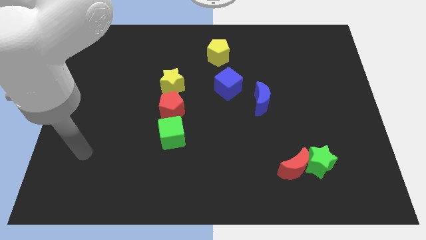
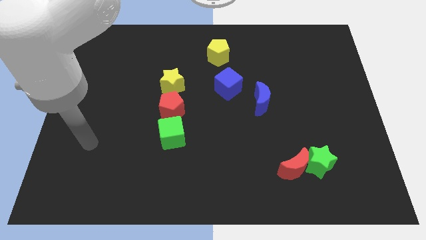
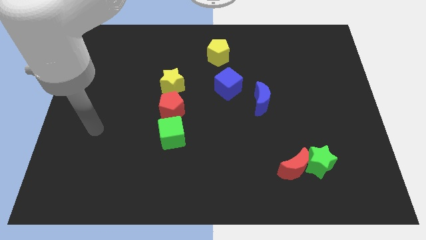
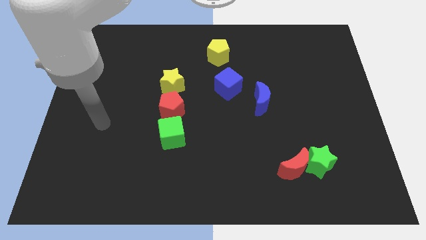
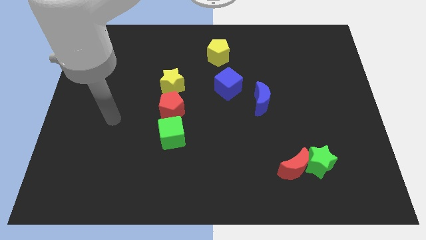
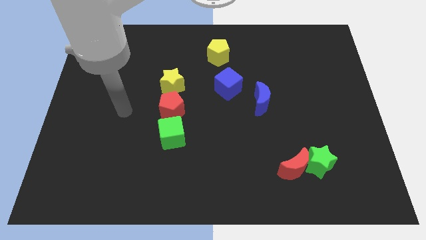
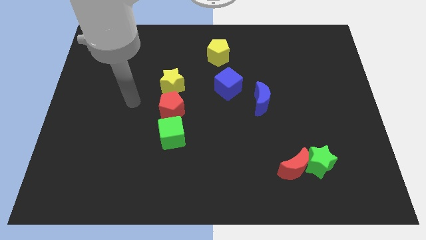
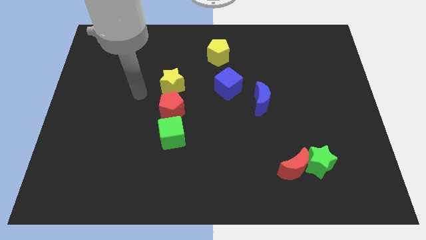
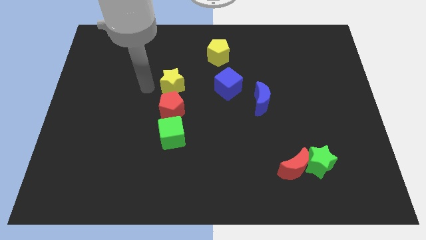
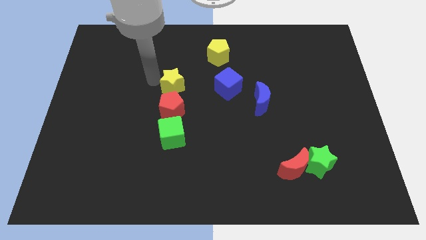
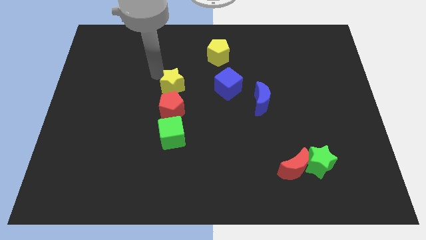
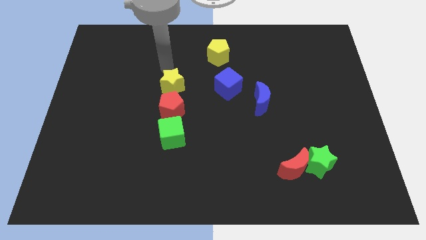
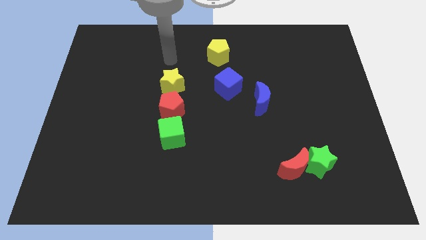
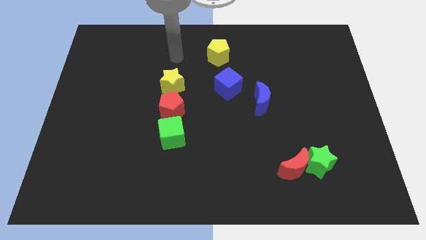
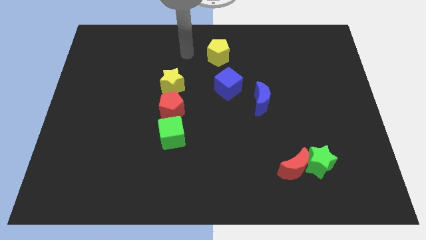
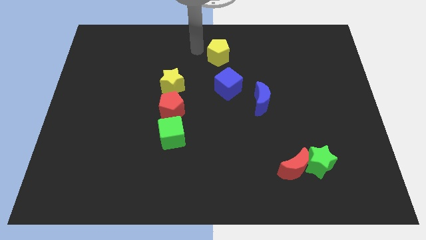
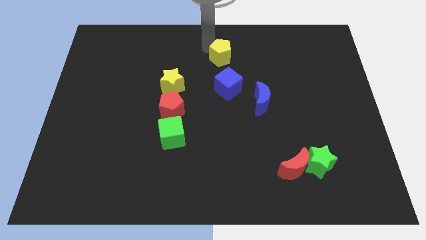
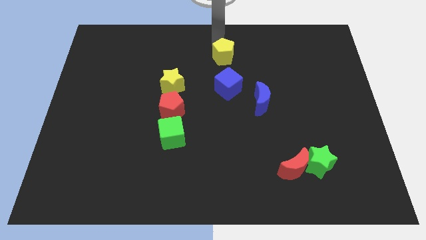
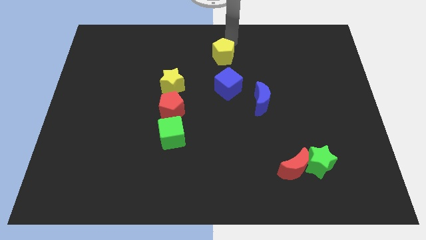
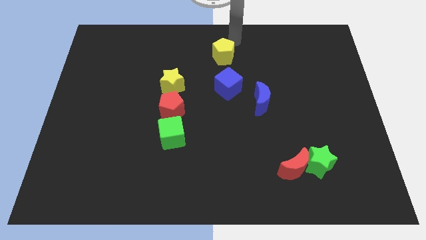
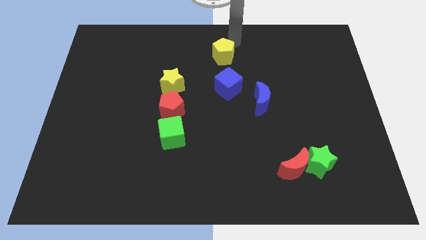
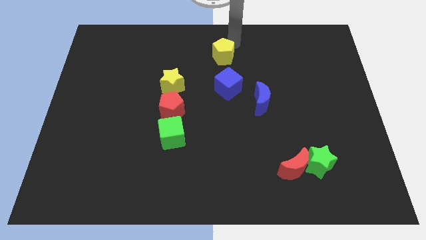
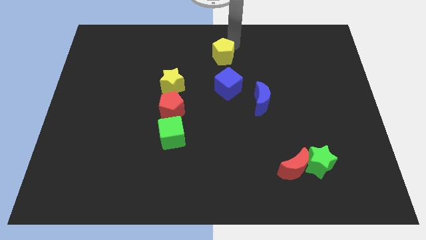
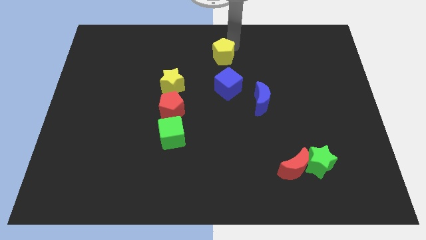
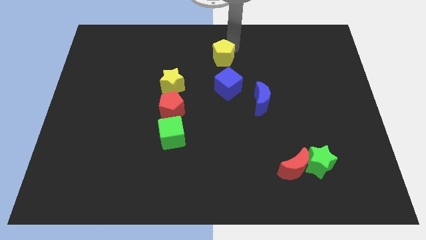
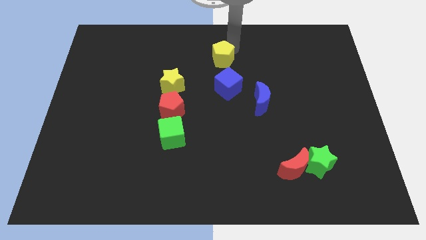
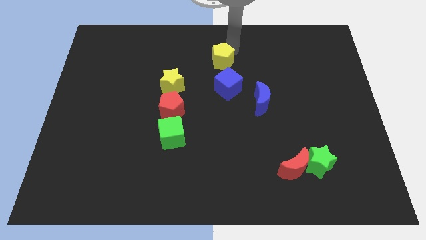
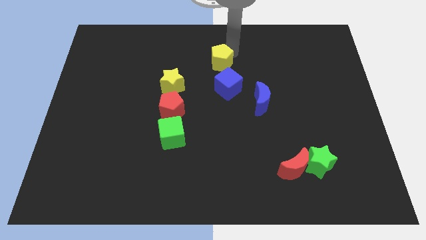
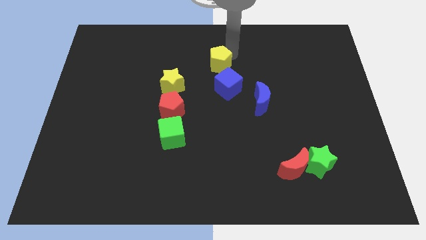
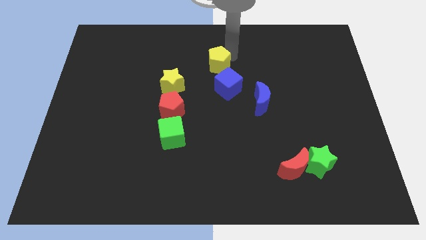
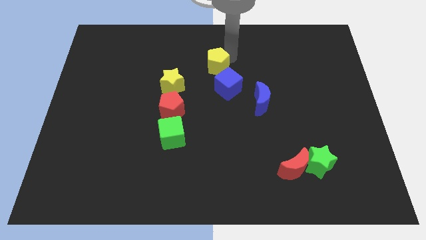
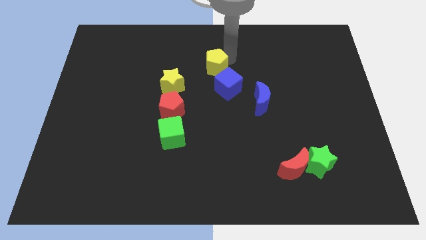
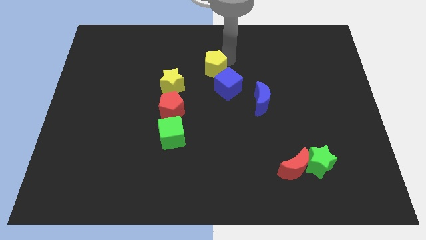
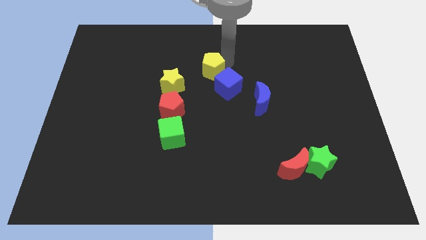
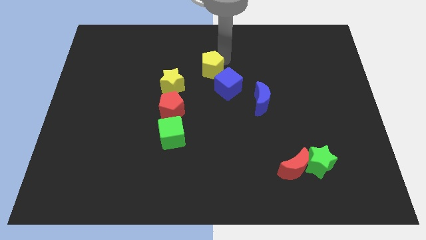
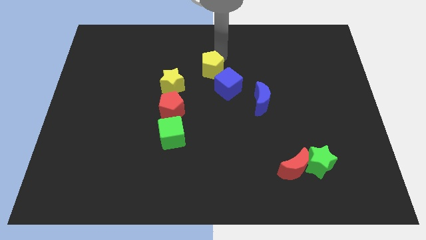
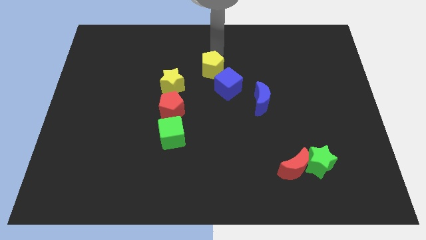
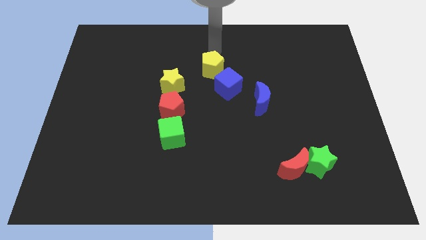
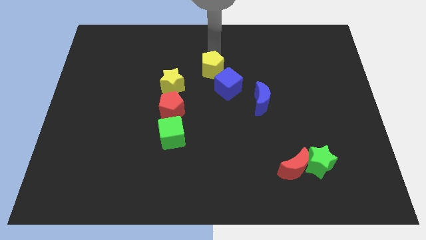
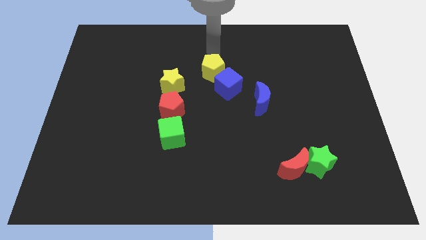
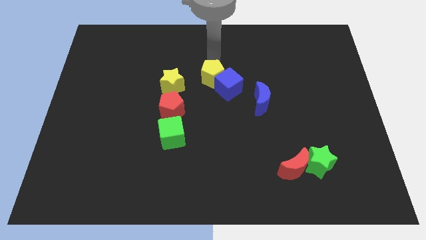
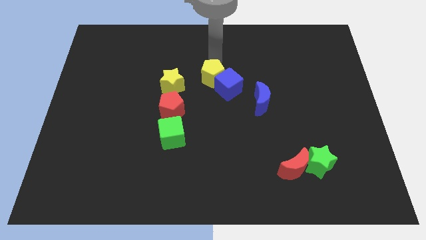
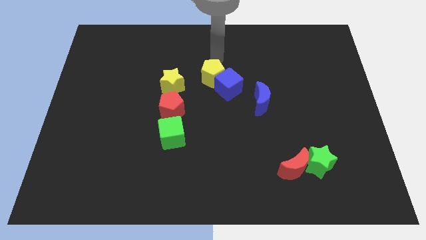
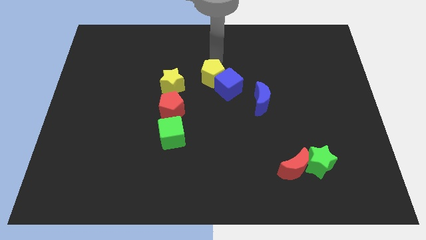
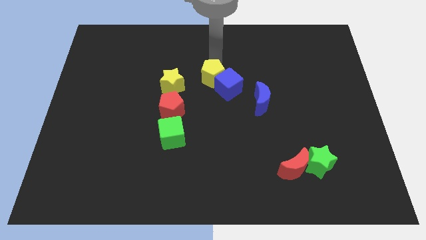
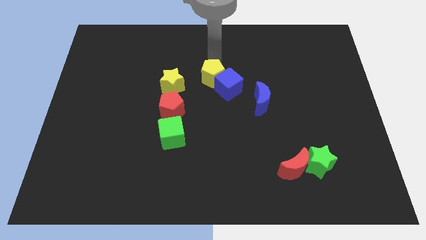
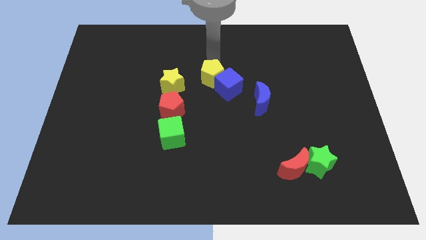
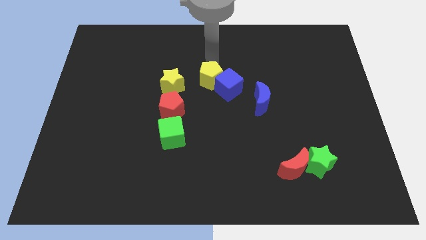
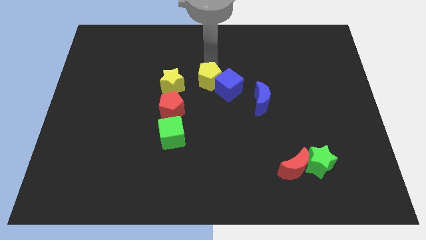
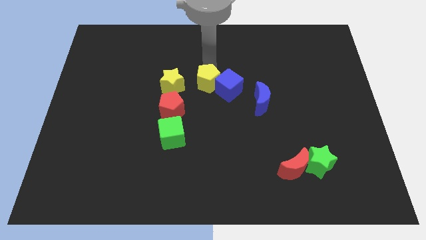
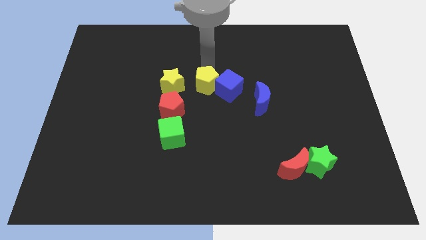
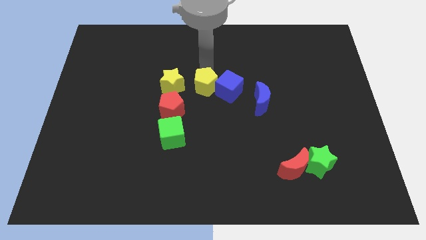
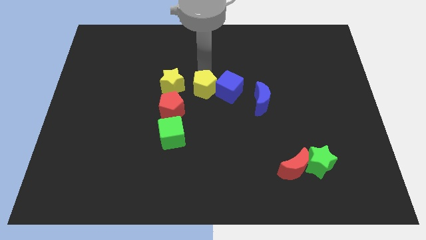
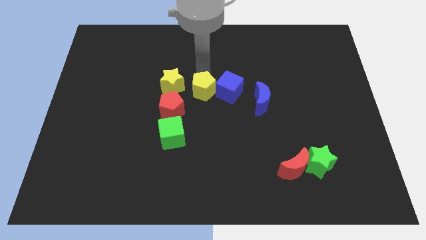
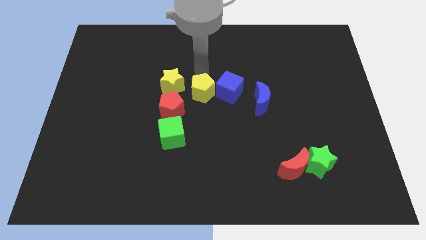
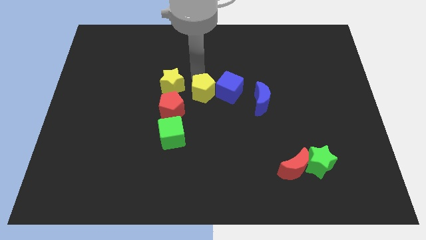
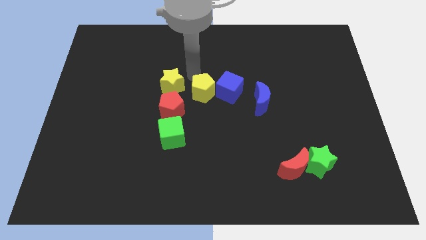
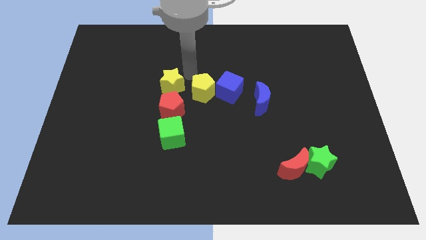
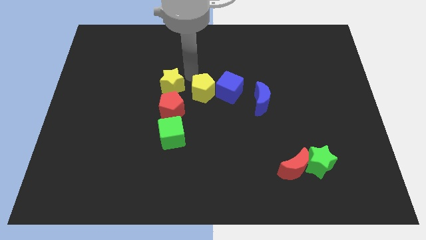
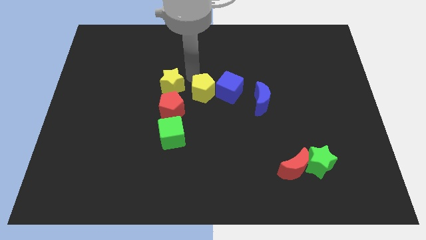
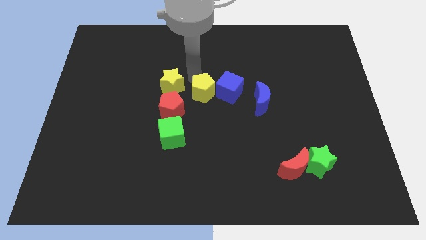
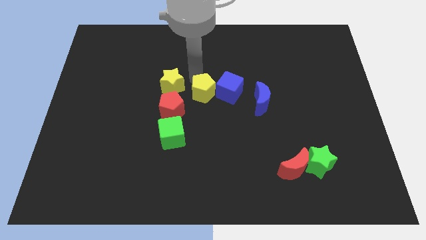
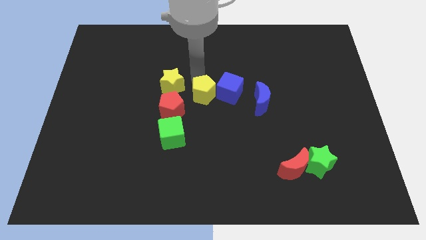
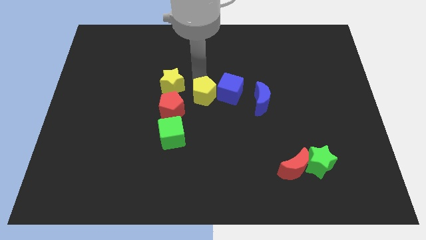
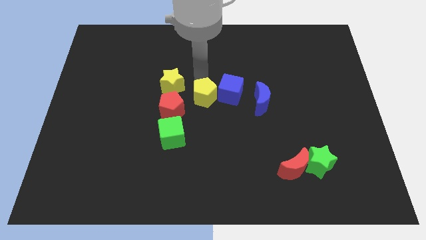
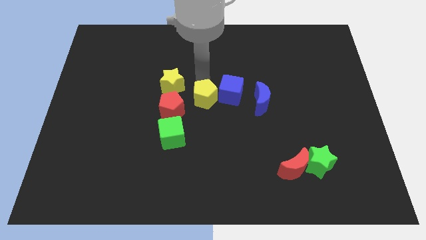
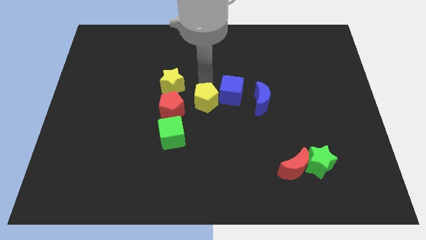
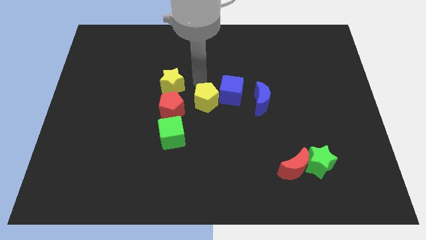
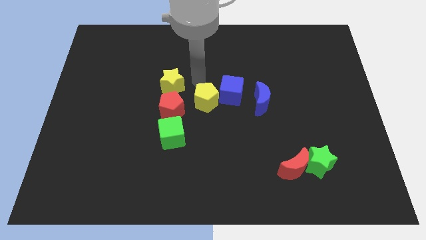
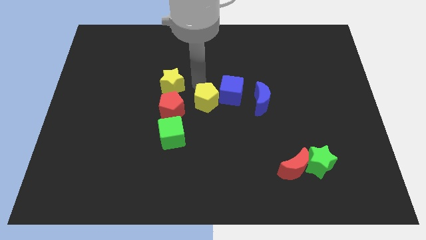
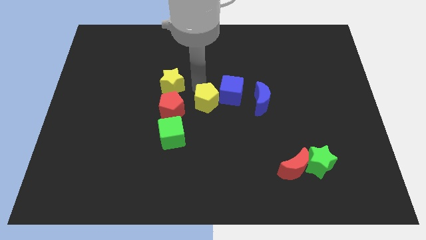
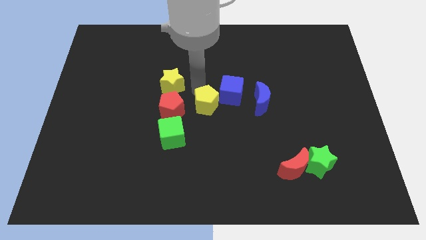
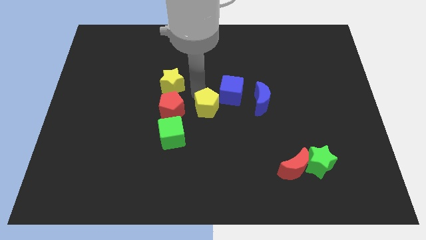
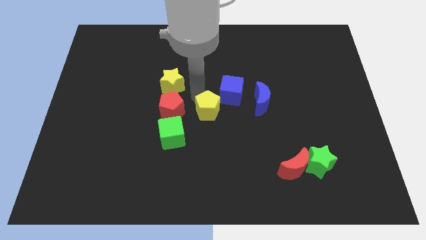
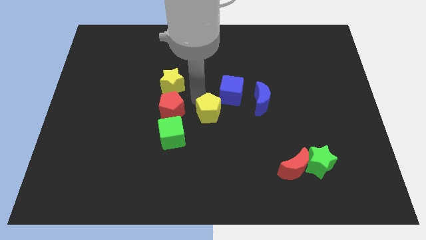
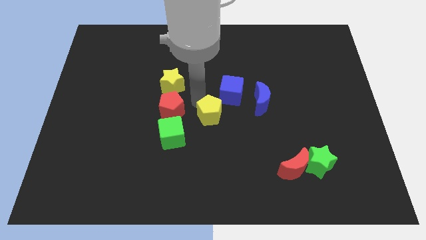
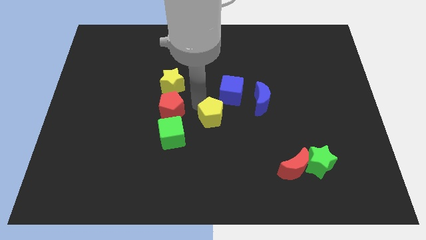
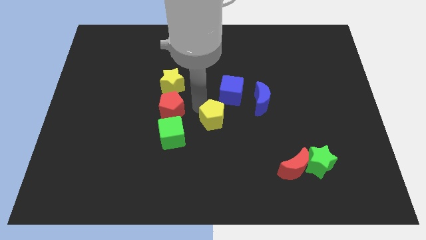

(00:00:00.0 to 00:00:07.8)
push the yellow pentagon just right of the green cube

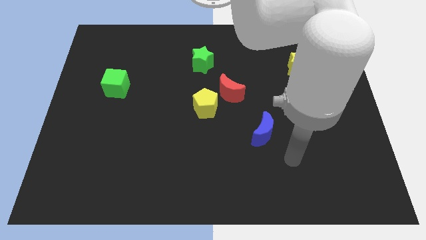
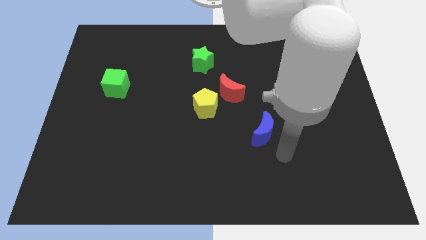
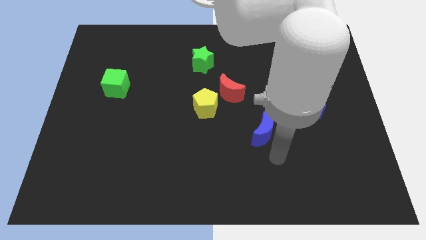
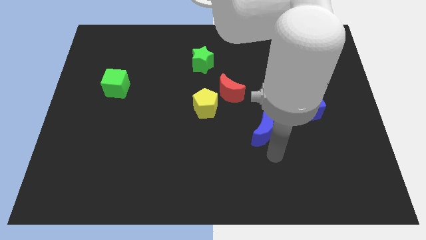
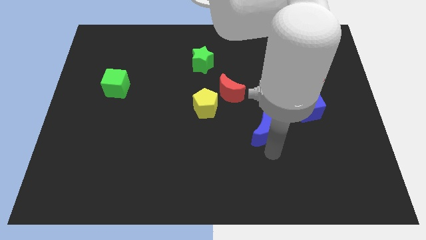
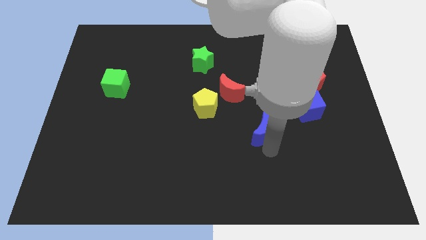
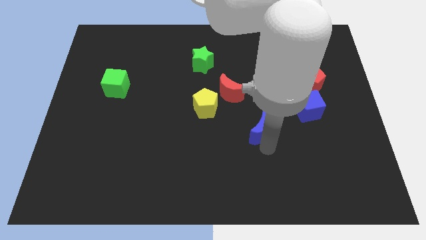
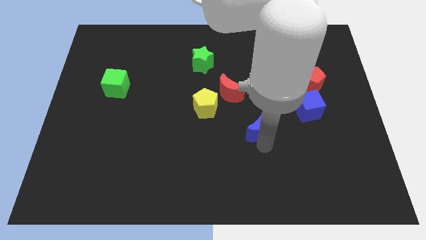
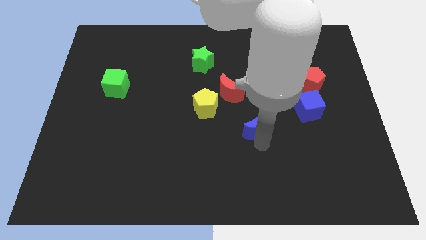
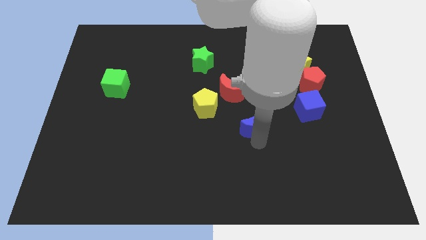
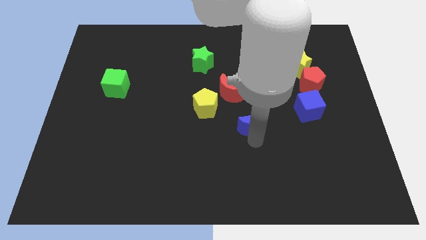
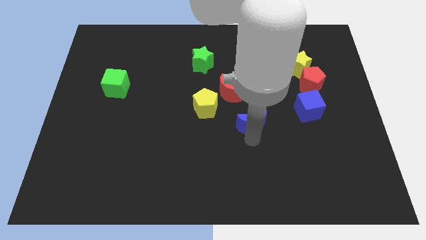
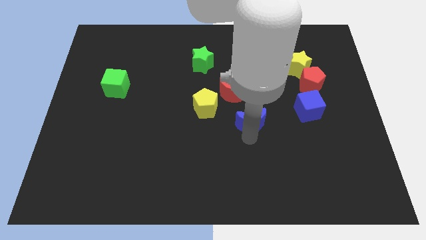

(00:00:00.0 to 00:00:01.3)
put the blue moon to the right of the yellow pentagon
